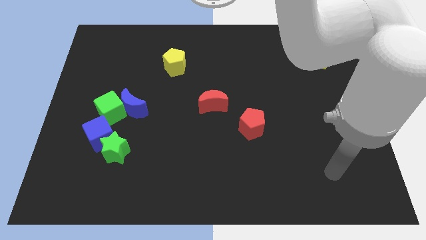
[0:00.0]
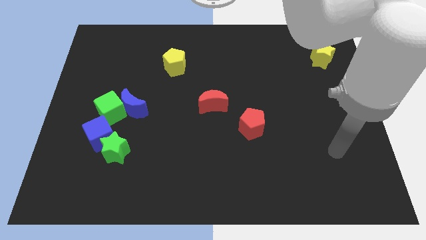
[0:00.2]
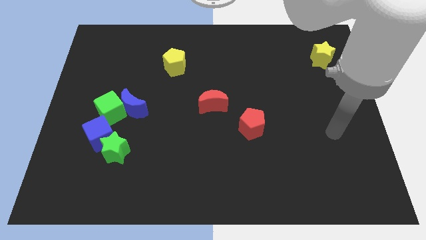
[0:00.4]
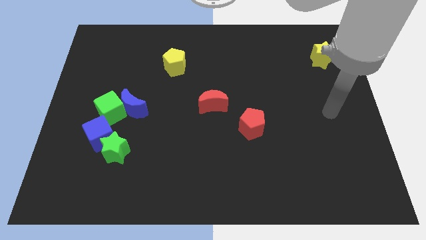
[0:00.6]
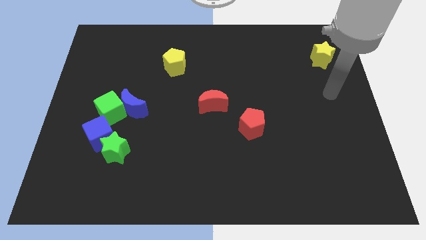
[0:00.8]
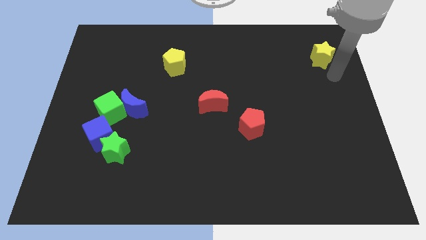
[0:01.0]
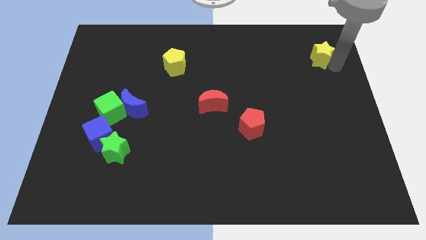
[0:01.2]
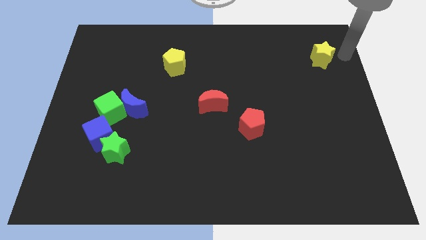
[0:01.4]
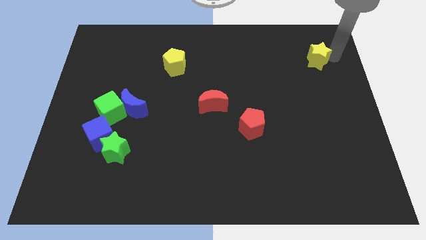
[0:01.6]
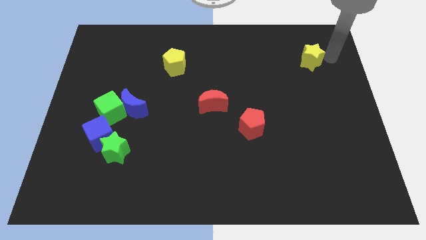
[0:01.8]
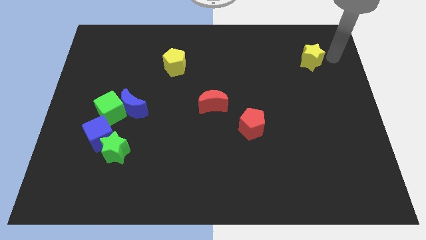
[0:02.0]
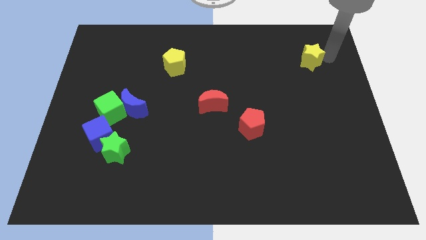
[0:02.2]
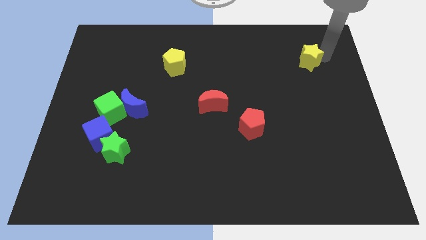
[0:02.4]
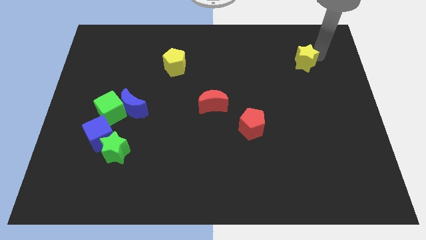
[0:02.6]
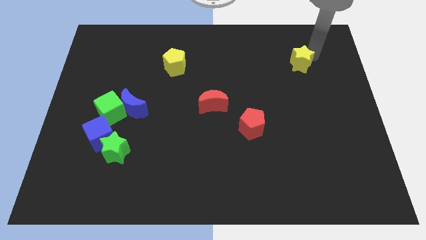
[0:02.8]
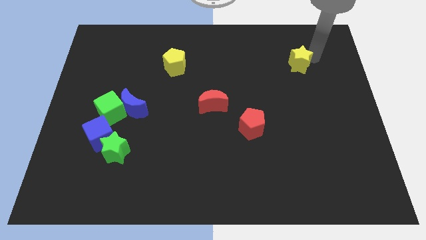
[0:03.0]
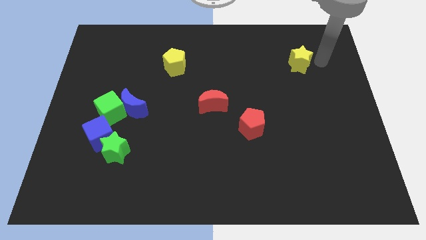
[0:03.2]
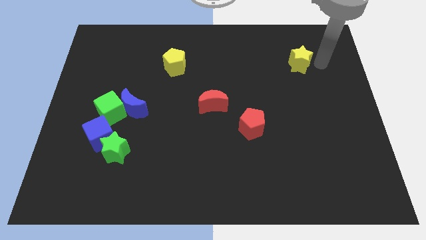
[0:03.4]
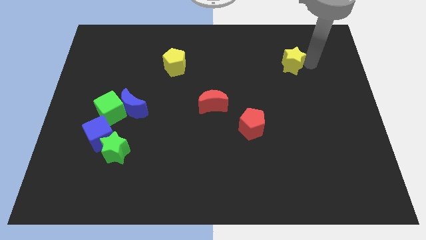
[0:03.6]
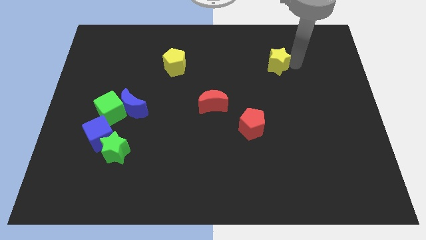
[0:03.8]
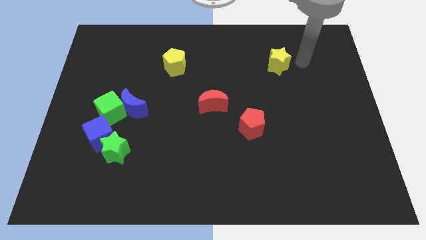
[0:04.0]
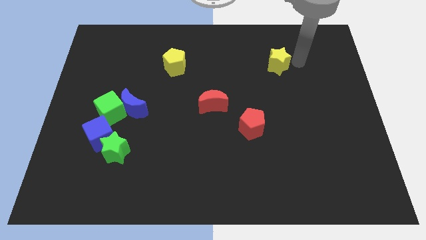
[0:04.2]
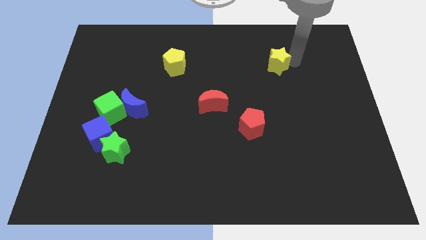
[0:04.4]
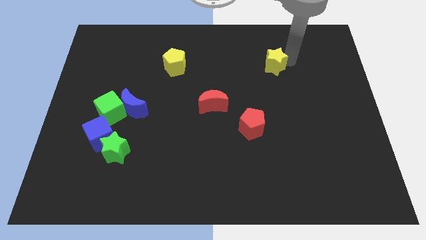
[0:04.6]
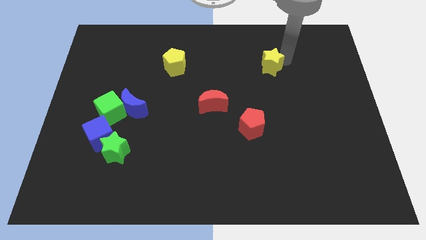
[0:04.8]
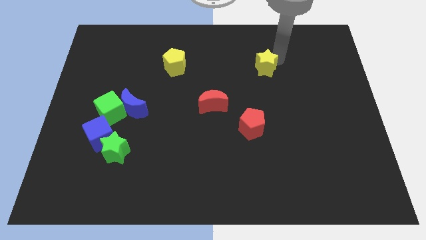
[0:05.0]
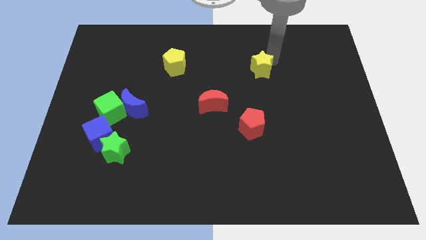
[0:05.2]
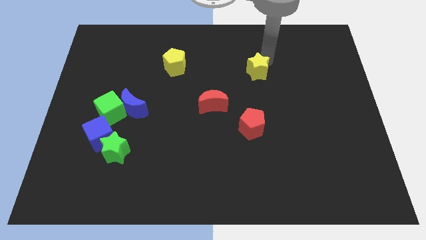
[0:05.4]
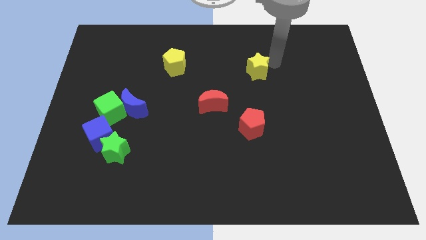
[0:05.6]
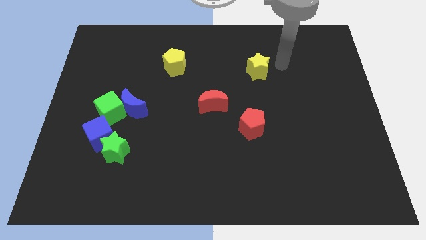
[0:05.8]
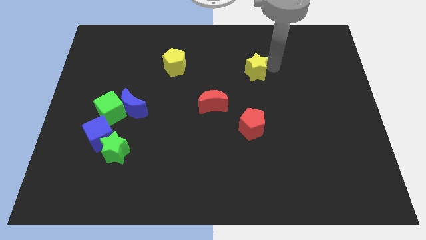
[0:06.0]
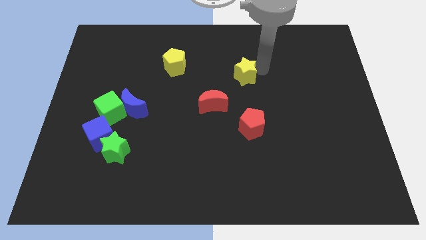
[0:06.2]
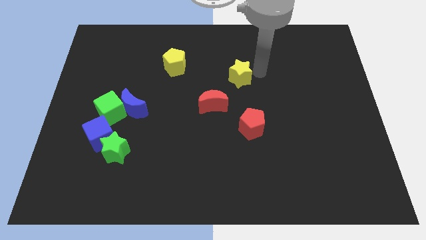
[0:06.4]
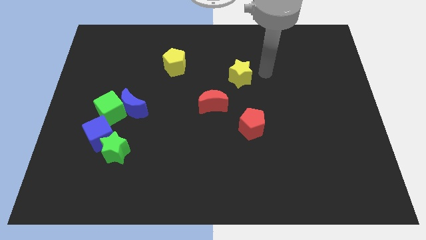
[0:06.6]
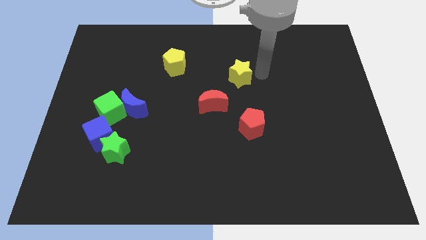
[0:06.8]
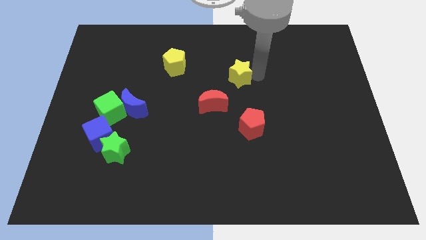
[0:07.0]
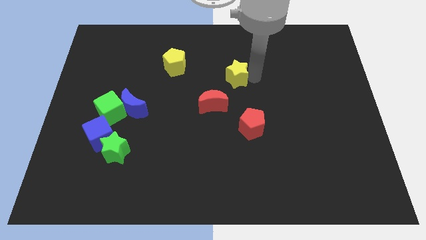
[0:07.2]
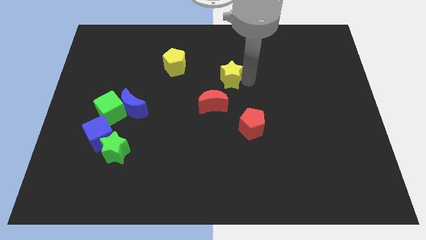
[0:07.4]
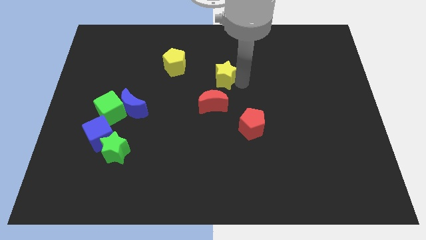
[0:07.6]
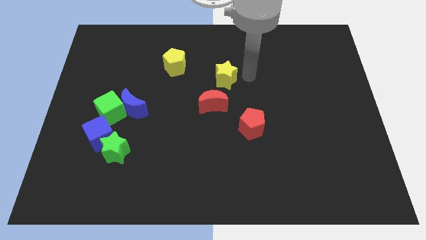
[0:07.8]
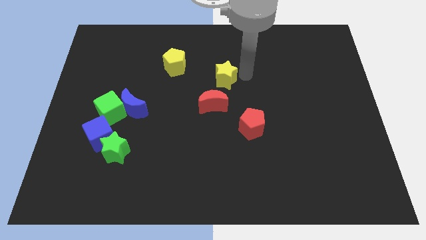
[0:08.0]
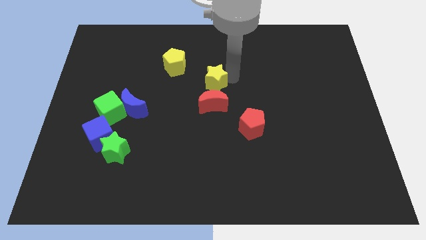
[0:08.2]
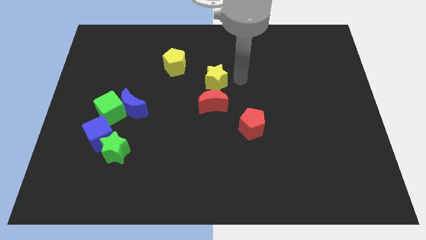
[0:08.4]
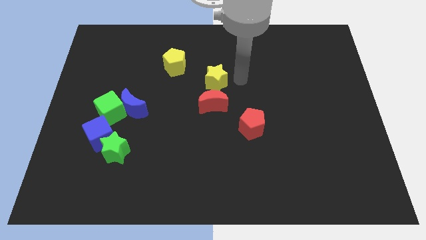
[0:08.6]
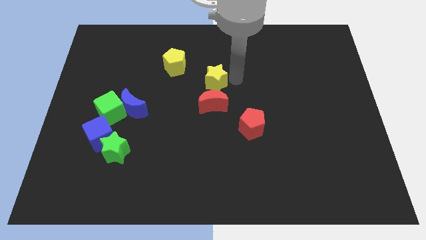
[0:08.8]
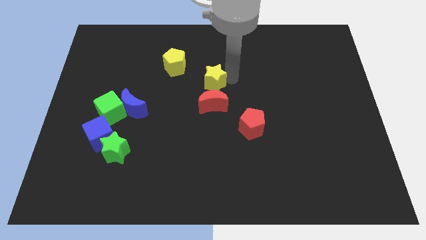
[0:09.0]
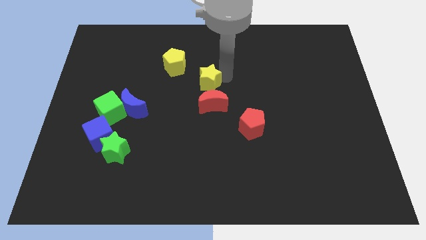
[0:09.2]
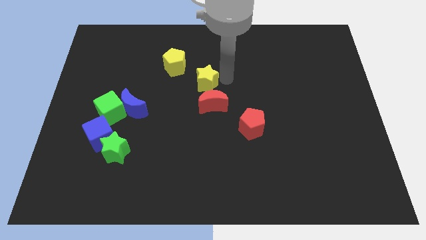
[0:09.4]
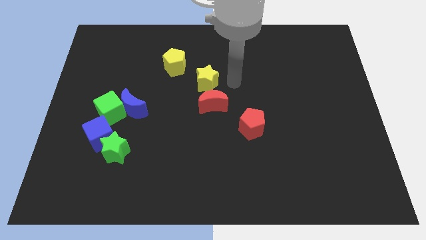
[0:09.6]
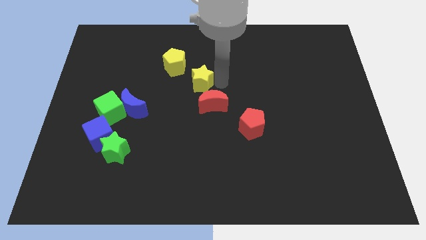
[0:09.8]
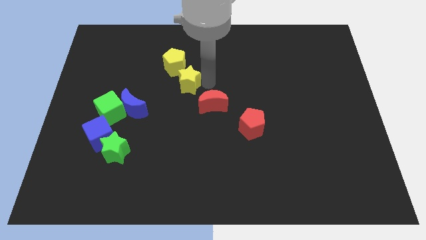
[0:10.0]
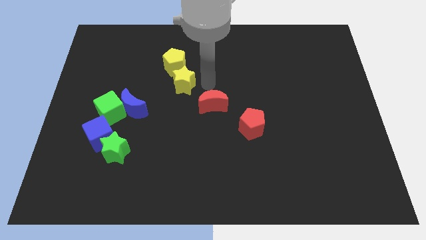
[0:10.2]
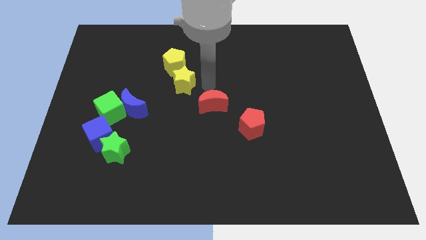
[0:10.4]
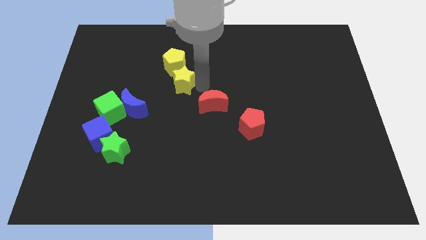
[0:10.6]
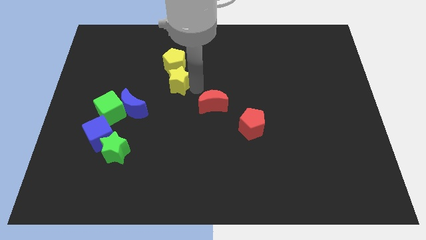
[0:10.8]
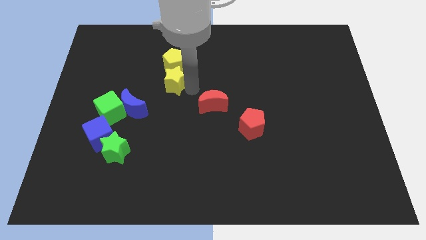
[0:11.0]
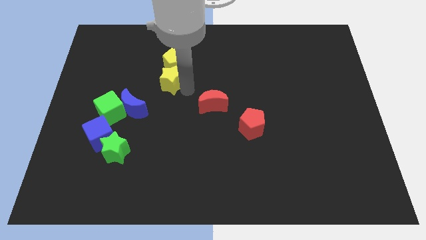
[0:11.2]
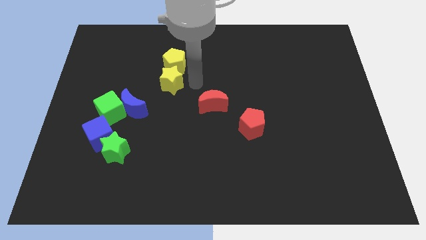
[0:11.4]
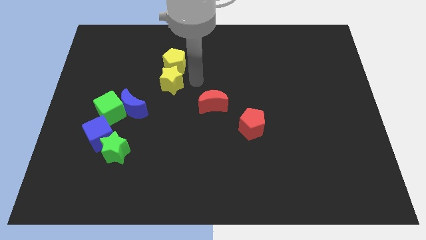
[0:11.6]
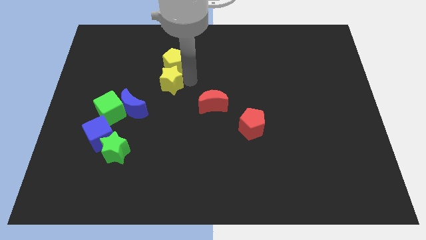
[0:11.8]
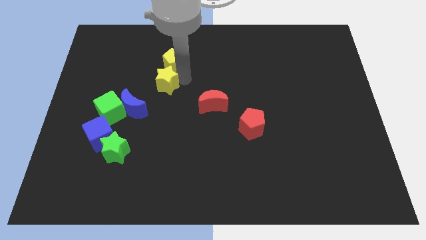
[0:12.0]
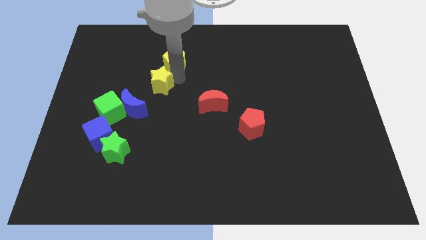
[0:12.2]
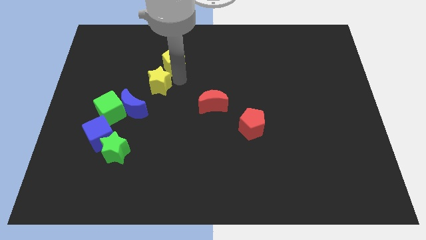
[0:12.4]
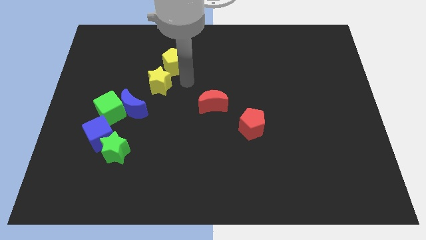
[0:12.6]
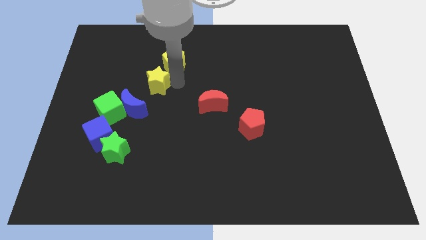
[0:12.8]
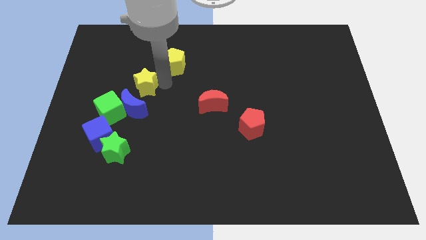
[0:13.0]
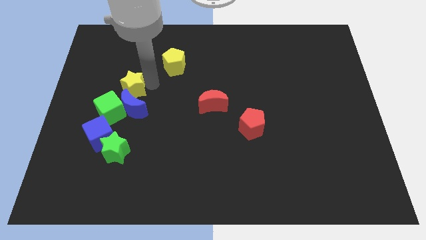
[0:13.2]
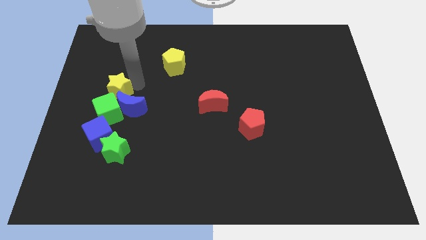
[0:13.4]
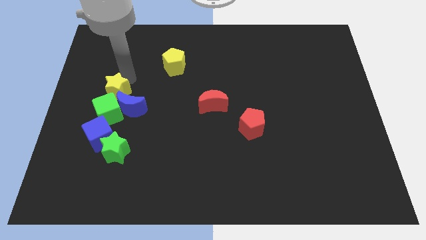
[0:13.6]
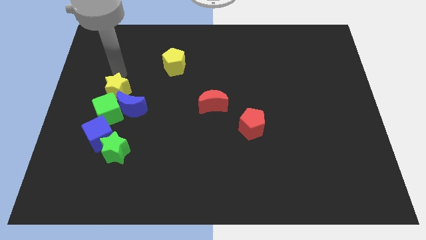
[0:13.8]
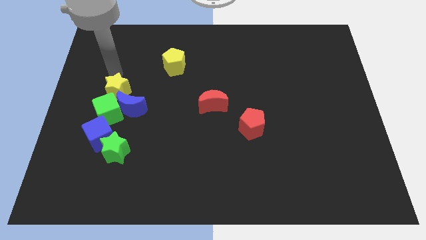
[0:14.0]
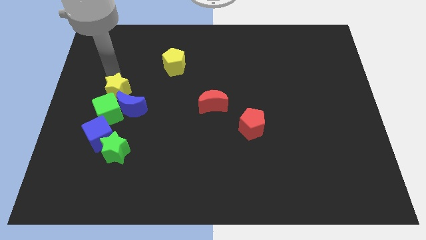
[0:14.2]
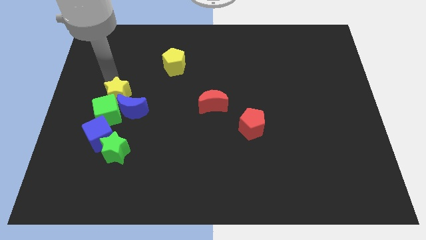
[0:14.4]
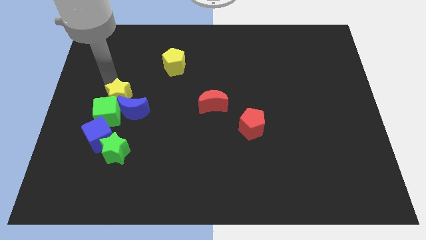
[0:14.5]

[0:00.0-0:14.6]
move the yellow star to the top of the green star

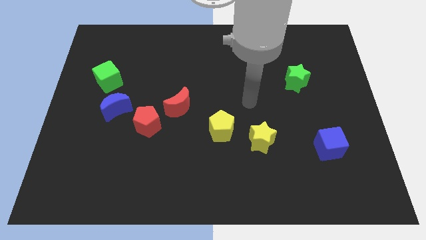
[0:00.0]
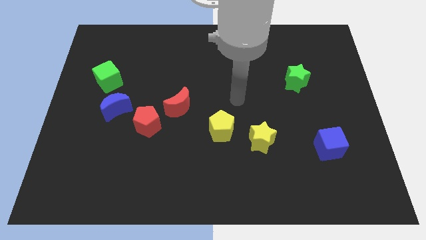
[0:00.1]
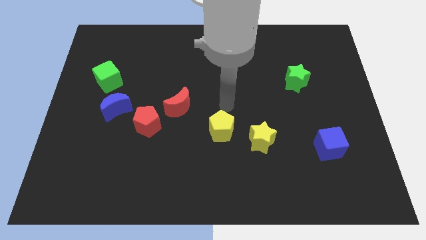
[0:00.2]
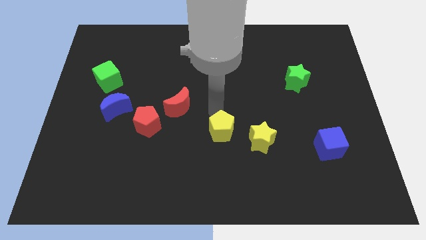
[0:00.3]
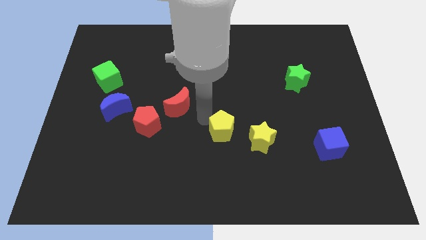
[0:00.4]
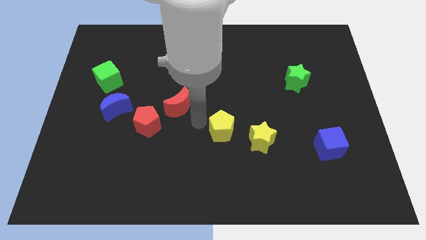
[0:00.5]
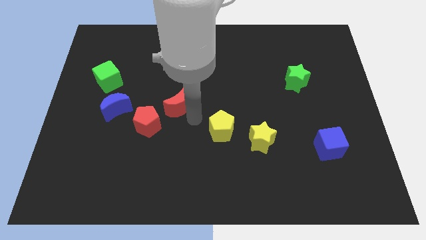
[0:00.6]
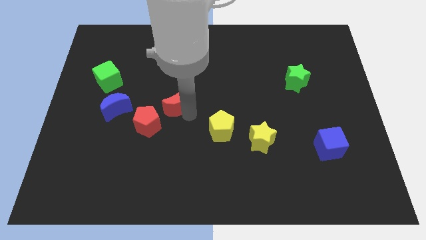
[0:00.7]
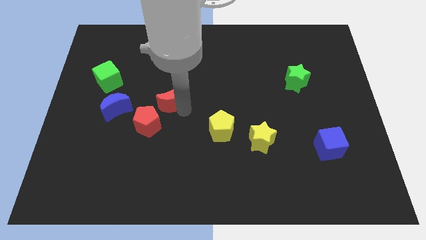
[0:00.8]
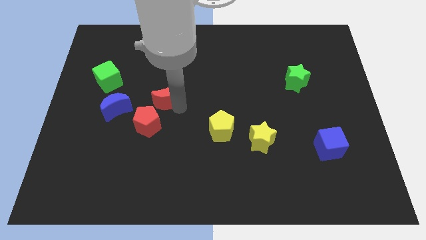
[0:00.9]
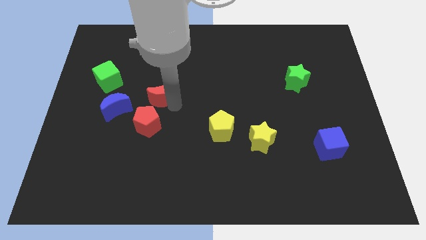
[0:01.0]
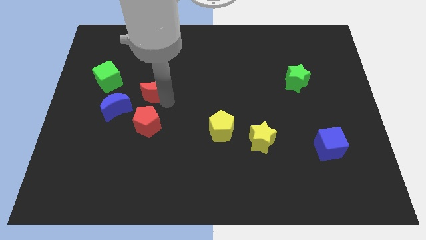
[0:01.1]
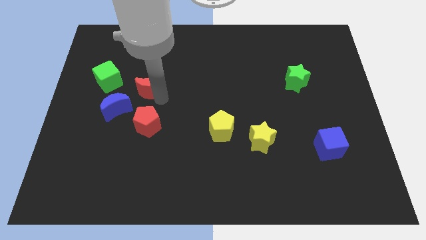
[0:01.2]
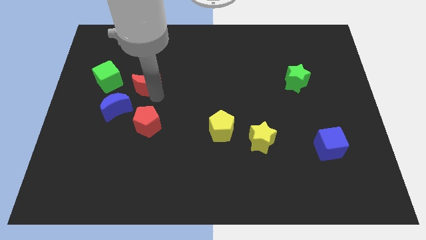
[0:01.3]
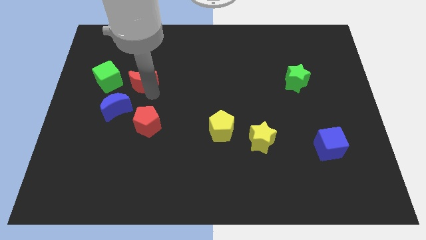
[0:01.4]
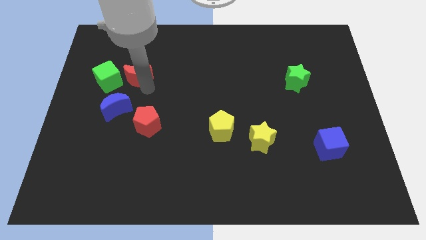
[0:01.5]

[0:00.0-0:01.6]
slide the red moon diagonally up and to the right of the green cube
